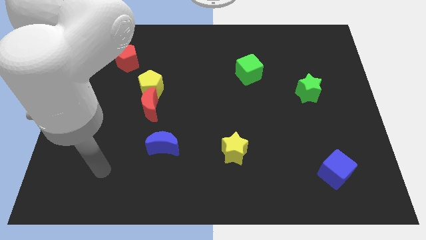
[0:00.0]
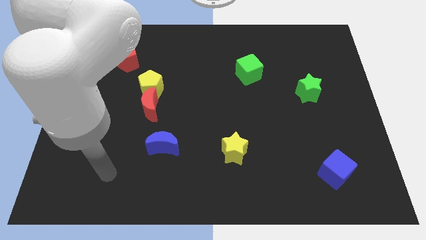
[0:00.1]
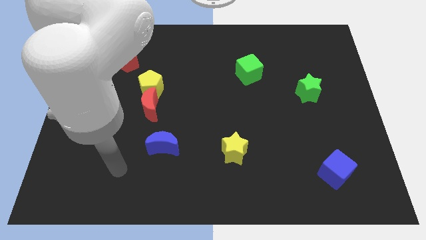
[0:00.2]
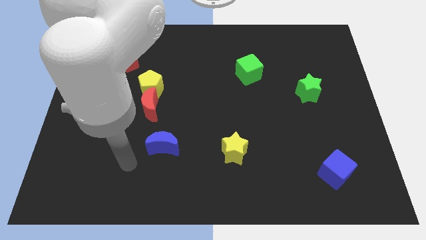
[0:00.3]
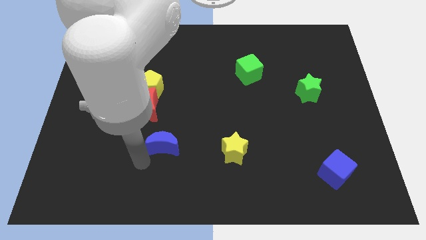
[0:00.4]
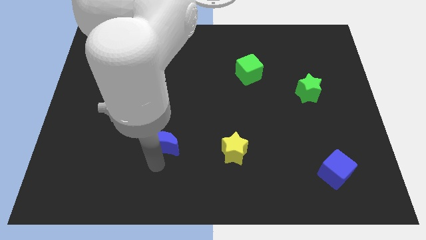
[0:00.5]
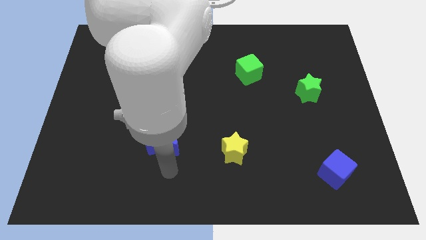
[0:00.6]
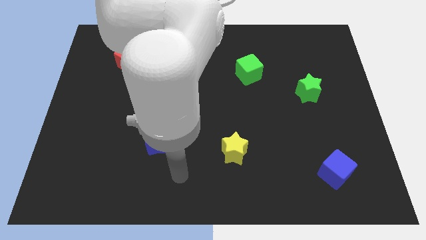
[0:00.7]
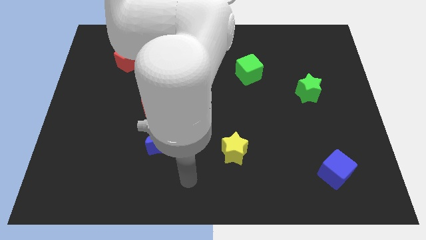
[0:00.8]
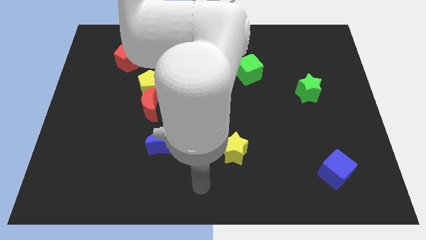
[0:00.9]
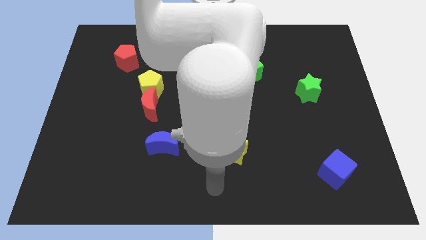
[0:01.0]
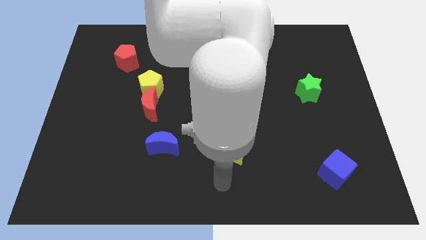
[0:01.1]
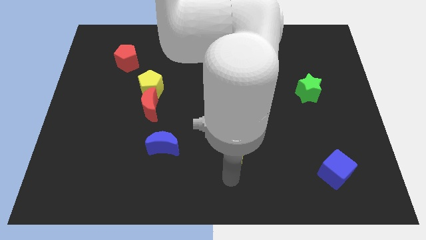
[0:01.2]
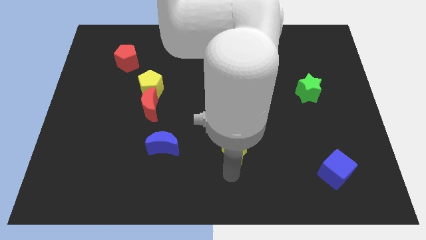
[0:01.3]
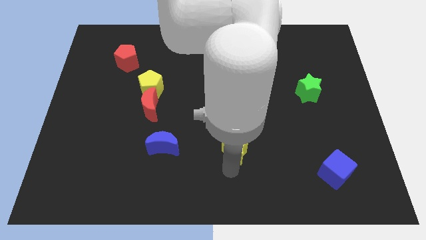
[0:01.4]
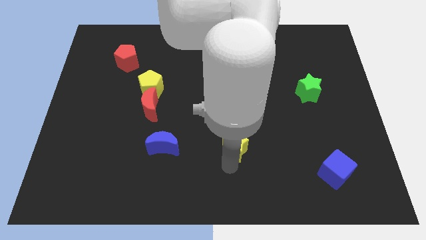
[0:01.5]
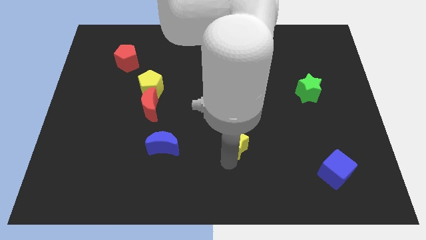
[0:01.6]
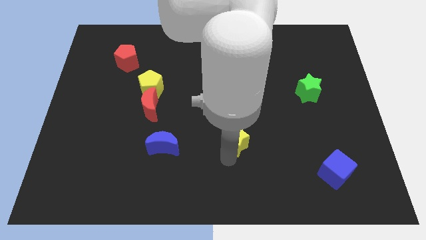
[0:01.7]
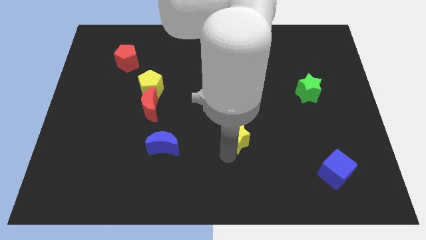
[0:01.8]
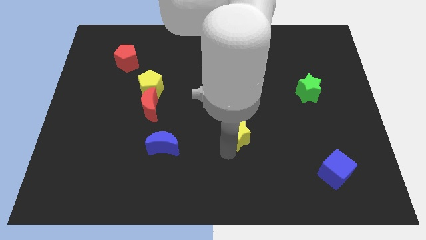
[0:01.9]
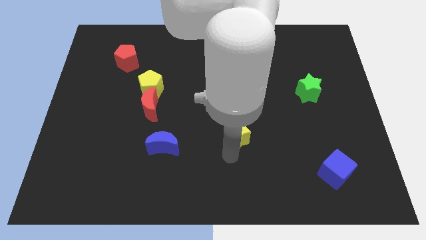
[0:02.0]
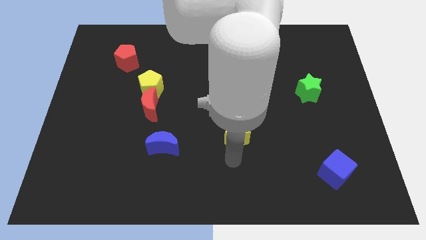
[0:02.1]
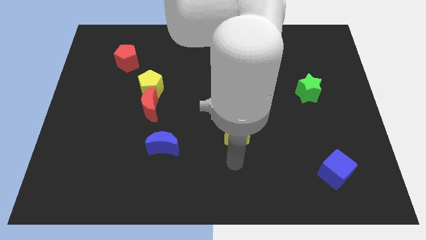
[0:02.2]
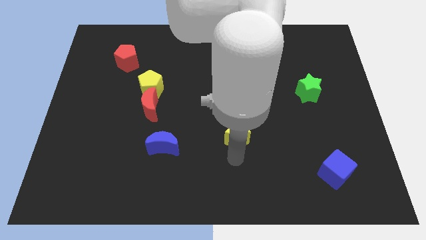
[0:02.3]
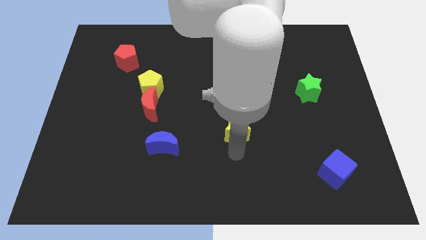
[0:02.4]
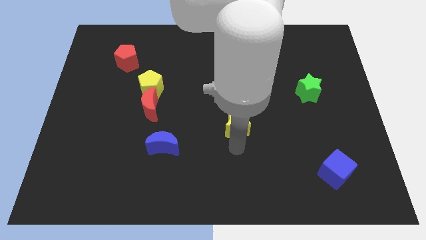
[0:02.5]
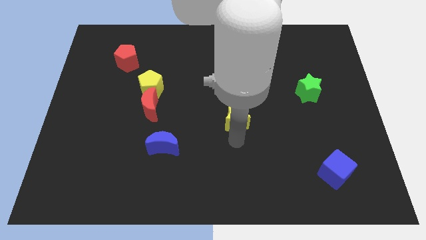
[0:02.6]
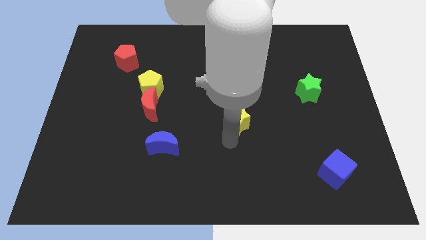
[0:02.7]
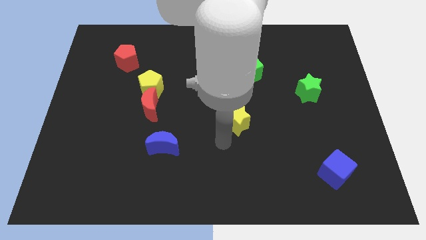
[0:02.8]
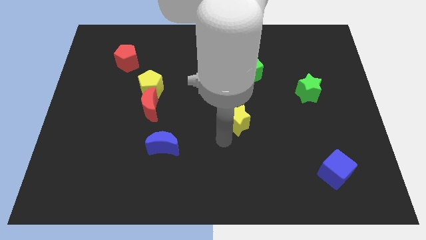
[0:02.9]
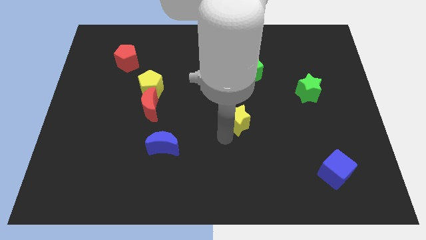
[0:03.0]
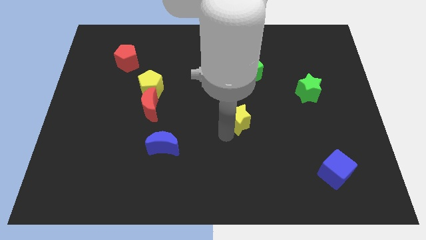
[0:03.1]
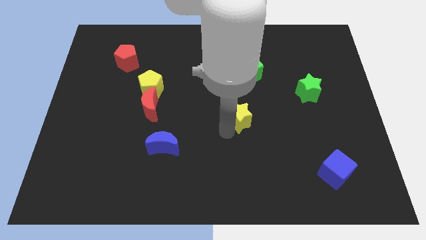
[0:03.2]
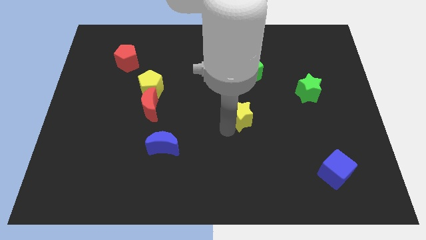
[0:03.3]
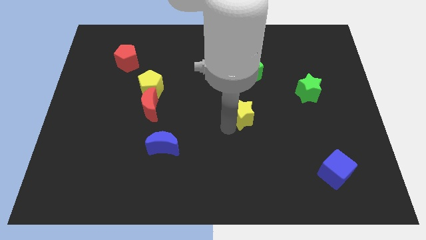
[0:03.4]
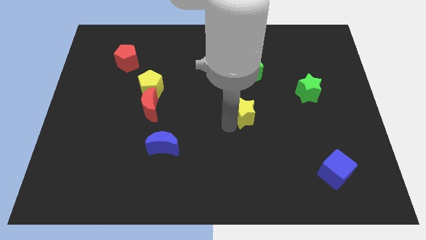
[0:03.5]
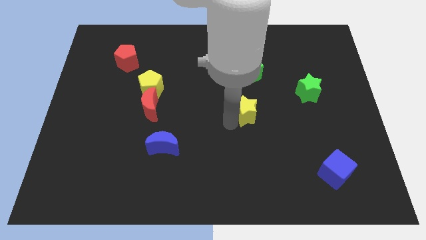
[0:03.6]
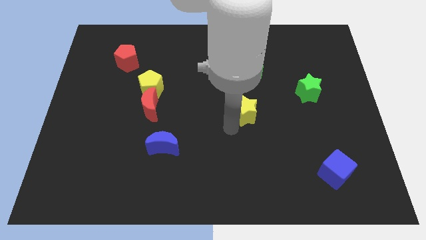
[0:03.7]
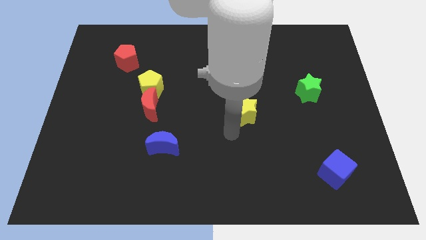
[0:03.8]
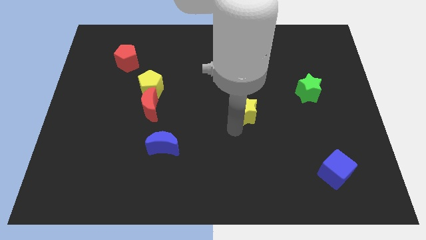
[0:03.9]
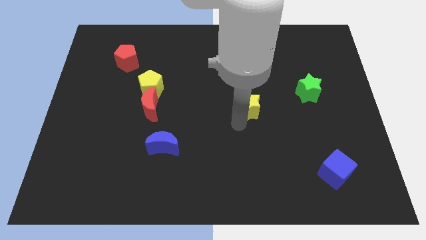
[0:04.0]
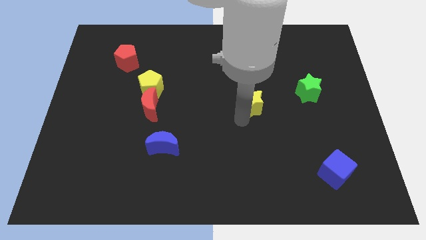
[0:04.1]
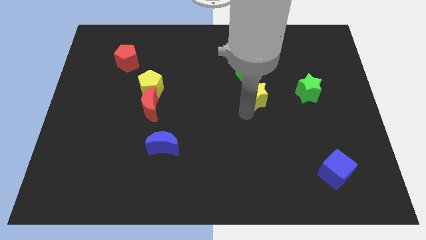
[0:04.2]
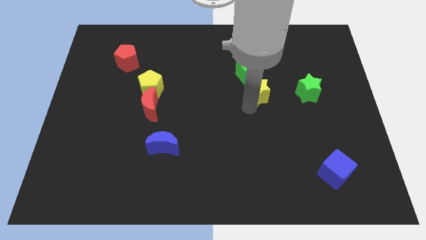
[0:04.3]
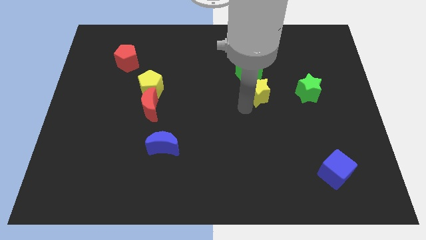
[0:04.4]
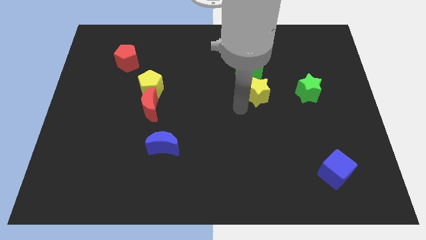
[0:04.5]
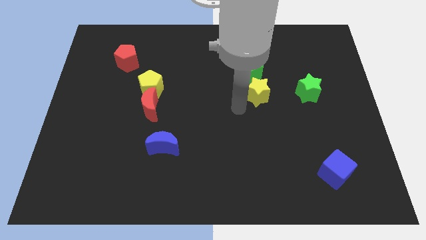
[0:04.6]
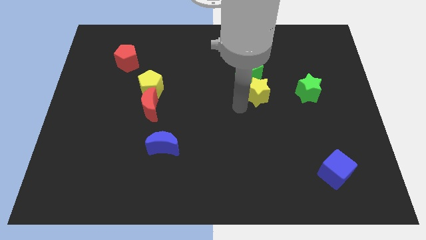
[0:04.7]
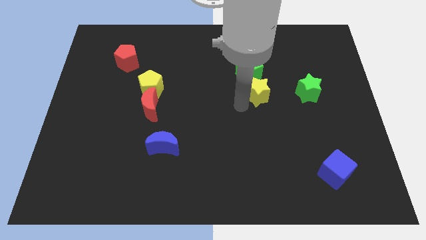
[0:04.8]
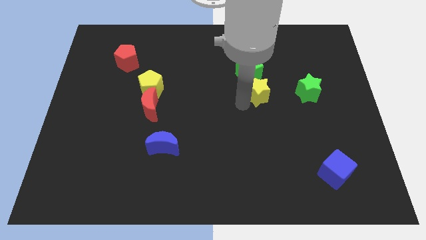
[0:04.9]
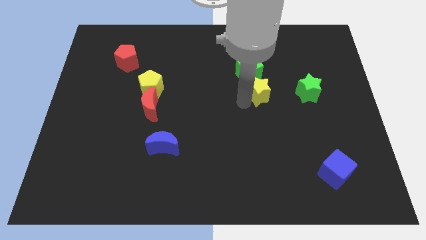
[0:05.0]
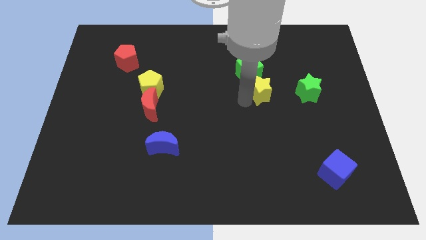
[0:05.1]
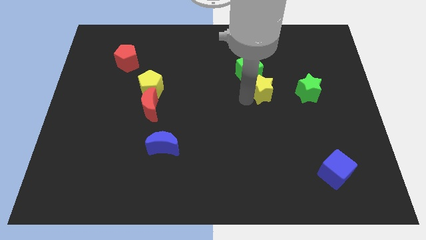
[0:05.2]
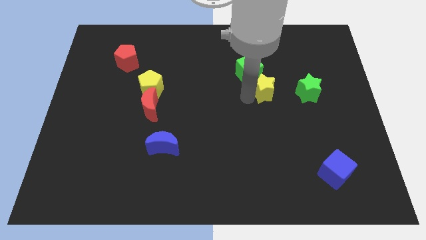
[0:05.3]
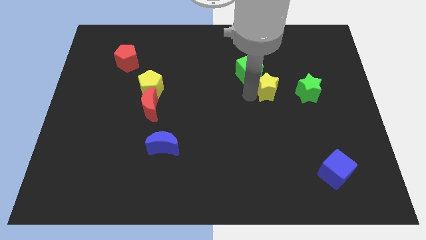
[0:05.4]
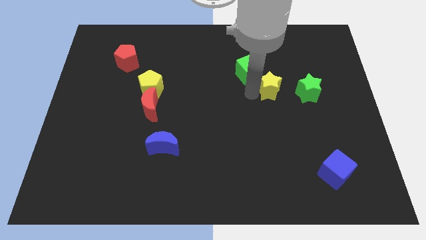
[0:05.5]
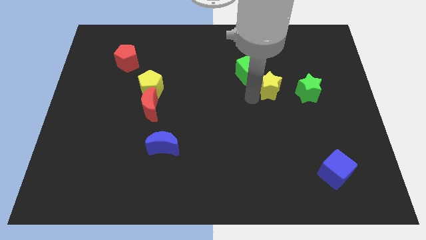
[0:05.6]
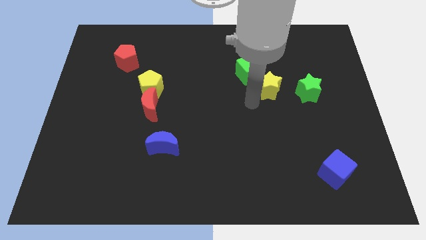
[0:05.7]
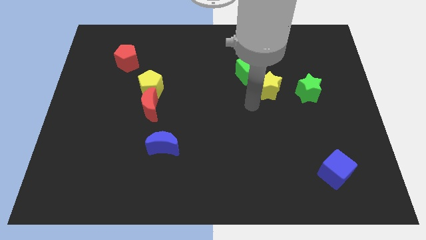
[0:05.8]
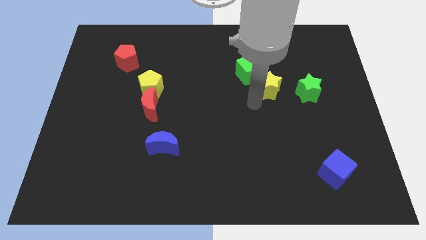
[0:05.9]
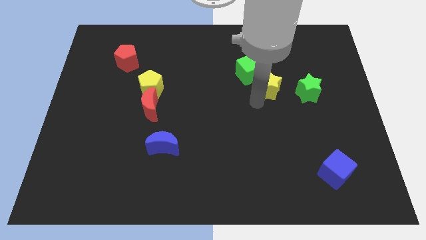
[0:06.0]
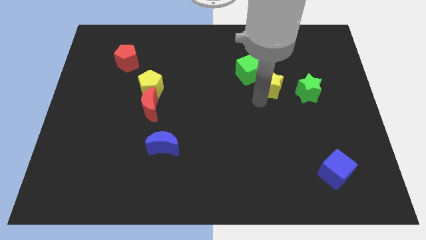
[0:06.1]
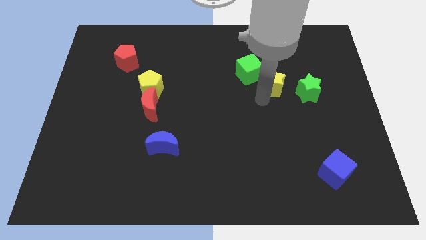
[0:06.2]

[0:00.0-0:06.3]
move the yellow star to the top left side of the green star

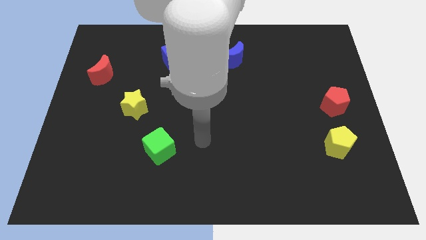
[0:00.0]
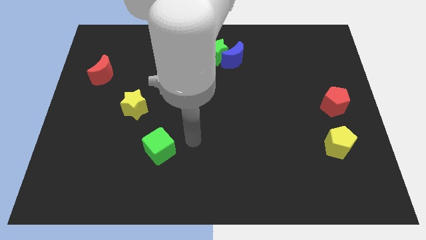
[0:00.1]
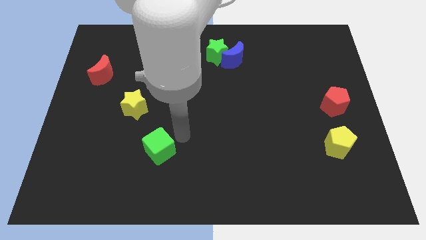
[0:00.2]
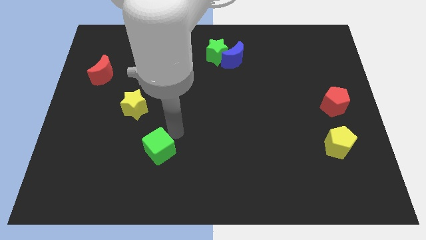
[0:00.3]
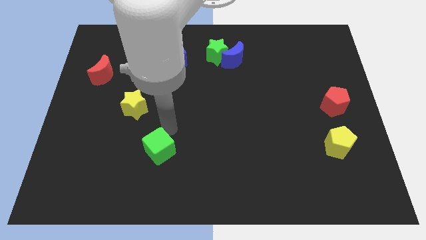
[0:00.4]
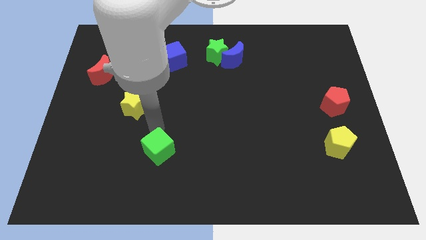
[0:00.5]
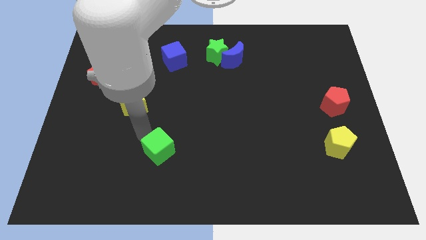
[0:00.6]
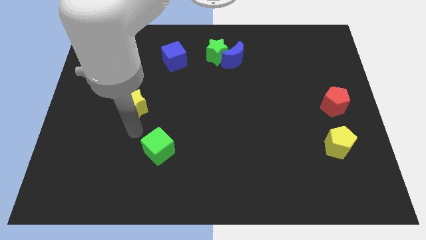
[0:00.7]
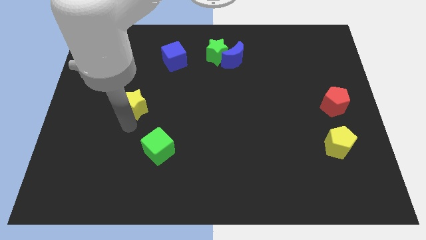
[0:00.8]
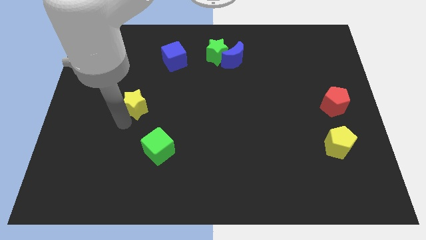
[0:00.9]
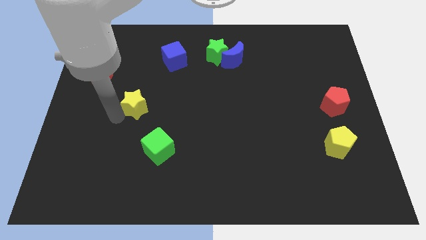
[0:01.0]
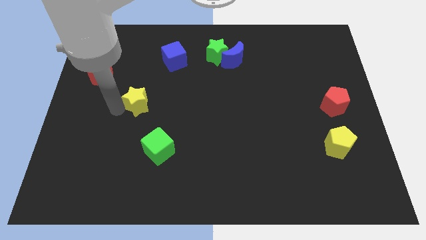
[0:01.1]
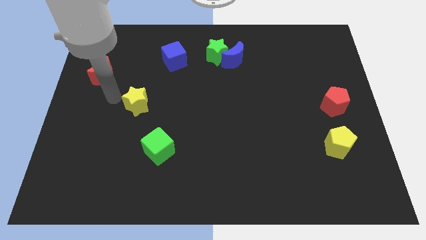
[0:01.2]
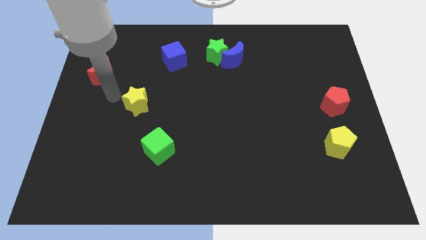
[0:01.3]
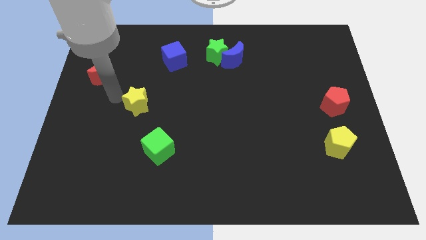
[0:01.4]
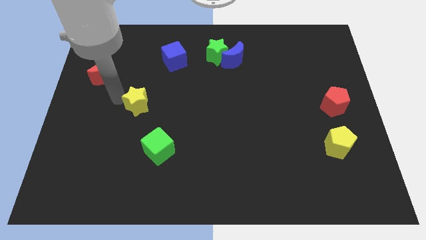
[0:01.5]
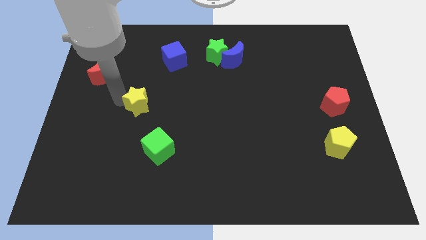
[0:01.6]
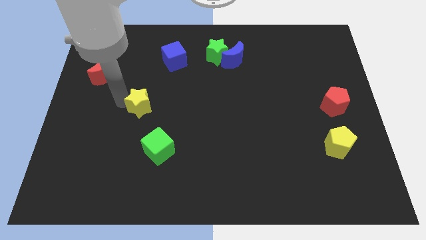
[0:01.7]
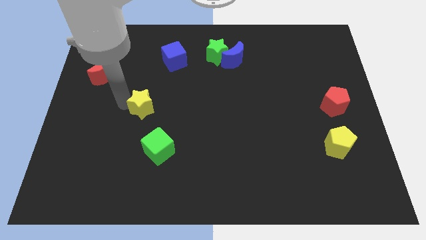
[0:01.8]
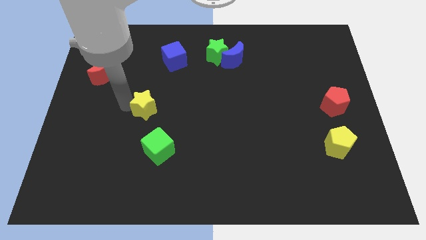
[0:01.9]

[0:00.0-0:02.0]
slide the yellow star above the green cube
